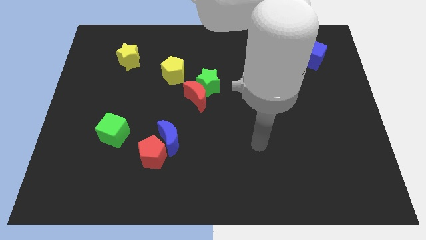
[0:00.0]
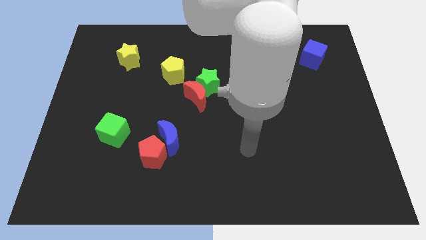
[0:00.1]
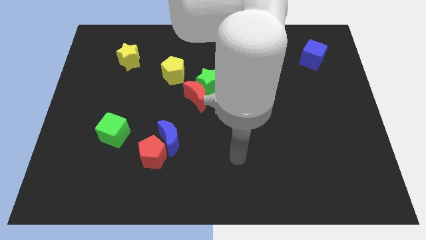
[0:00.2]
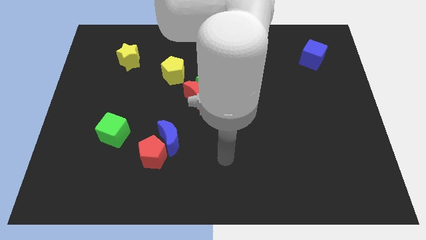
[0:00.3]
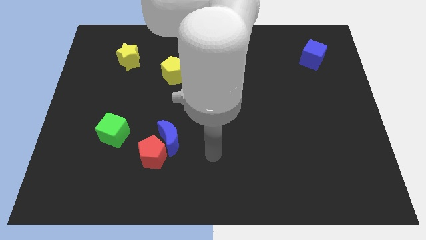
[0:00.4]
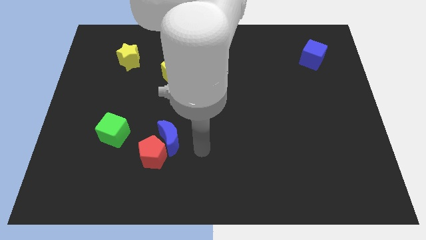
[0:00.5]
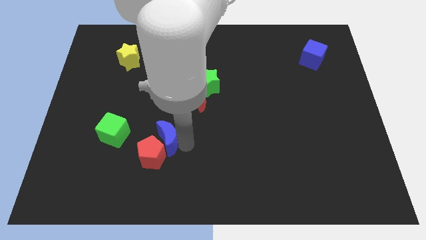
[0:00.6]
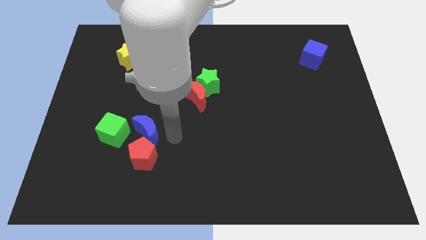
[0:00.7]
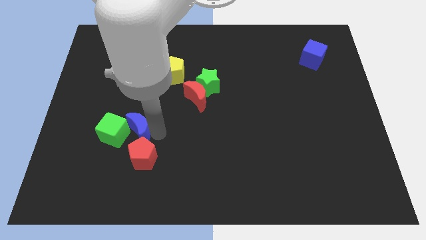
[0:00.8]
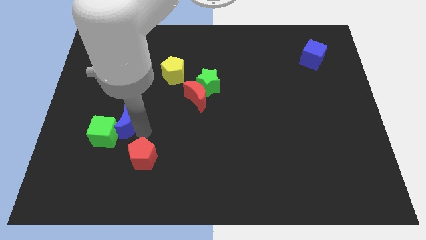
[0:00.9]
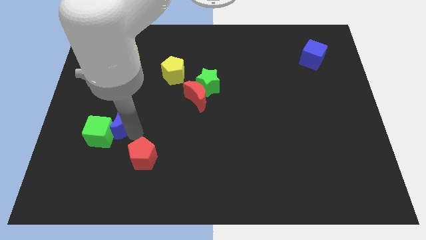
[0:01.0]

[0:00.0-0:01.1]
pull the red pentagon apart from the blue moon

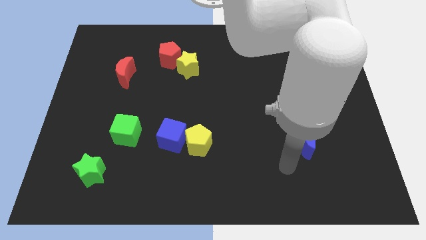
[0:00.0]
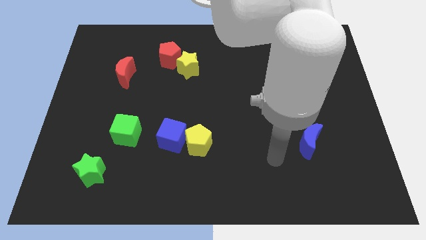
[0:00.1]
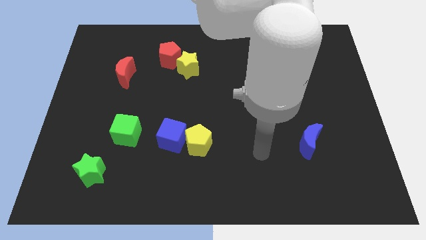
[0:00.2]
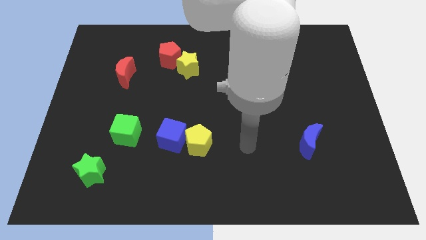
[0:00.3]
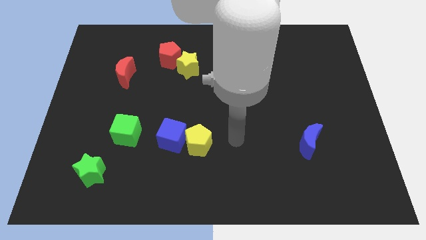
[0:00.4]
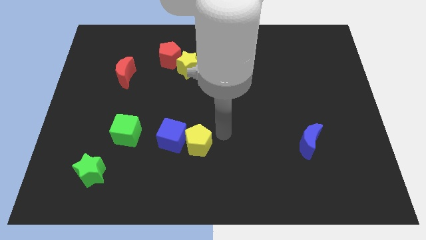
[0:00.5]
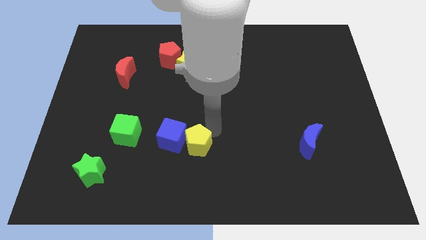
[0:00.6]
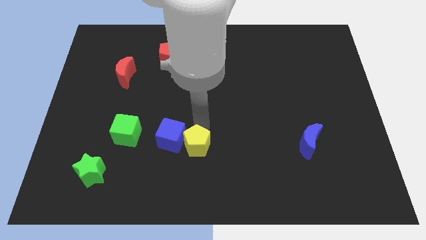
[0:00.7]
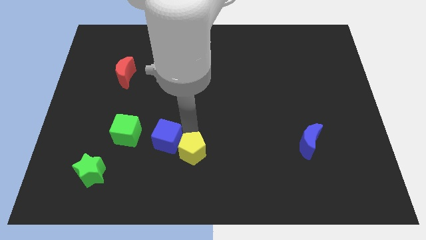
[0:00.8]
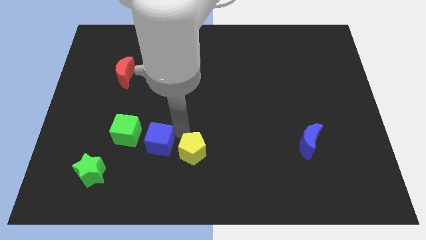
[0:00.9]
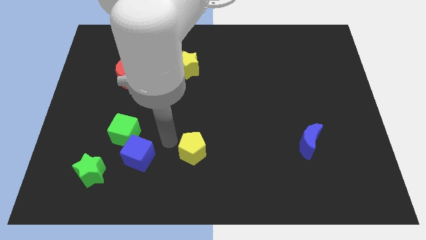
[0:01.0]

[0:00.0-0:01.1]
pull the yellow pentagon apart from the blue cube

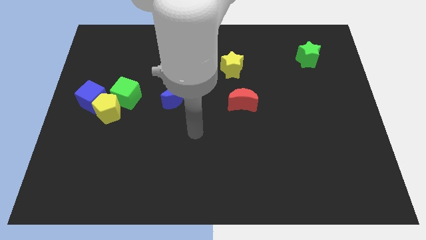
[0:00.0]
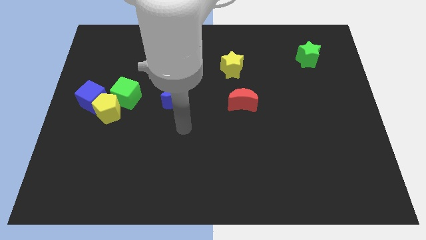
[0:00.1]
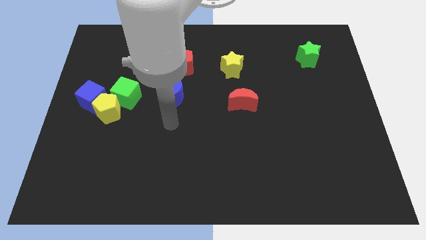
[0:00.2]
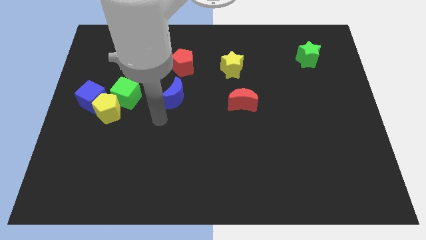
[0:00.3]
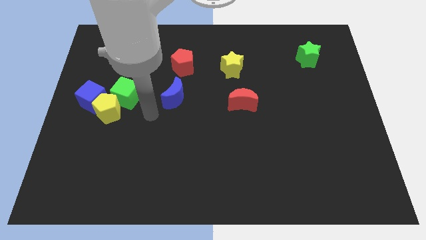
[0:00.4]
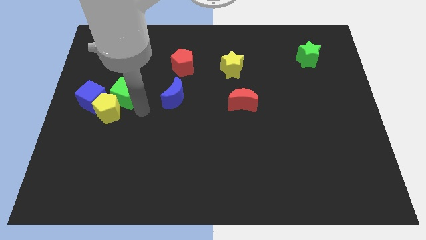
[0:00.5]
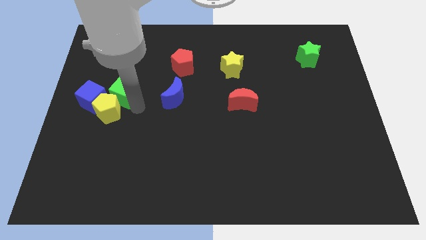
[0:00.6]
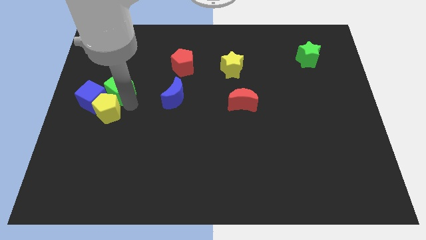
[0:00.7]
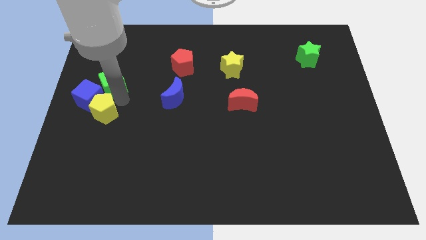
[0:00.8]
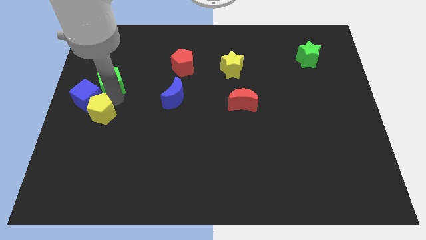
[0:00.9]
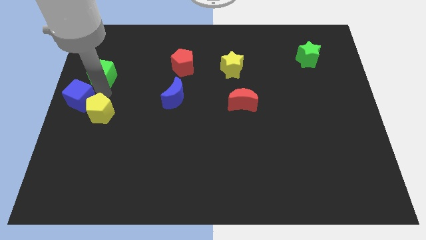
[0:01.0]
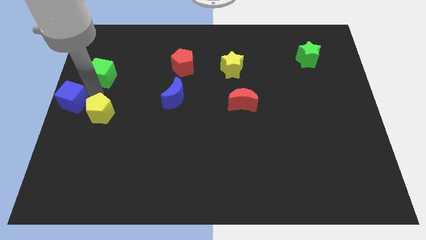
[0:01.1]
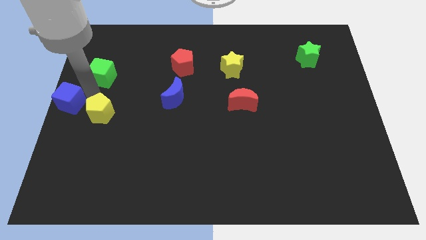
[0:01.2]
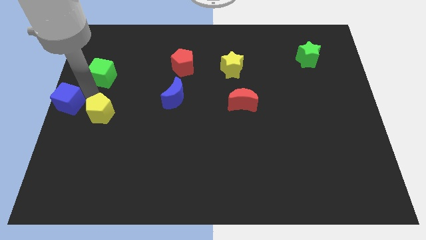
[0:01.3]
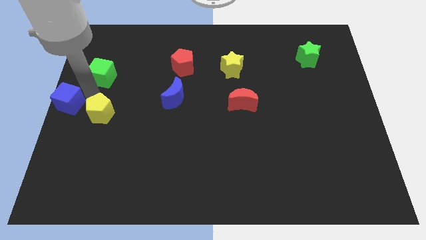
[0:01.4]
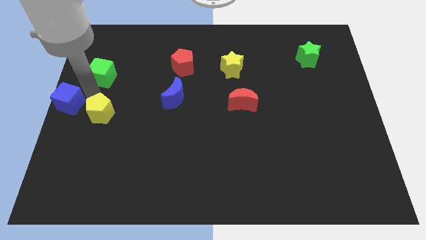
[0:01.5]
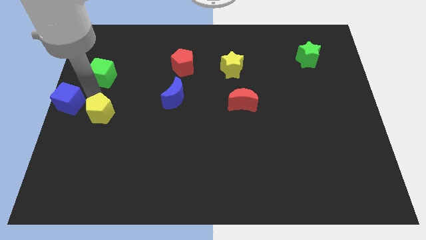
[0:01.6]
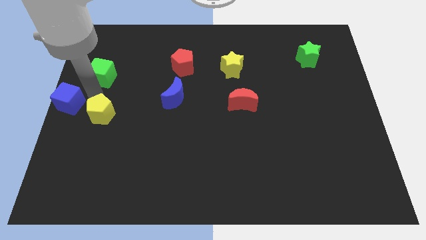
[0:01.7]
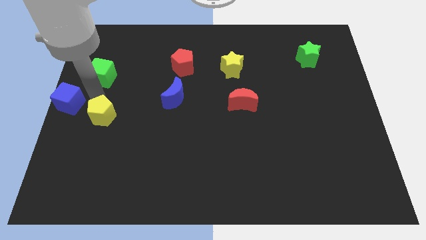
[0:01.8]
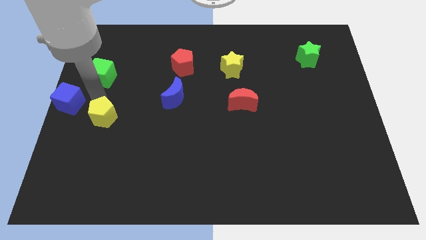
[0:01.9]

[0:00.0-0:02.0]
move the yellow pentagon away from the blue cube and green cube

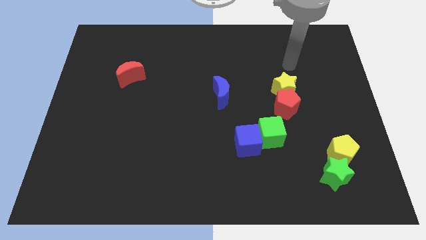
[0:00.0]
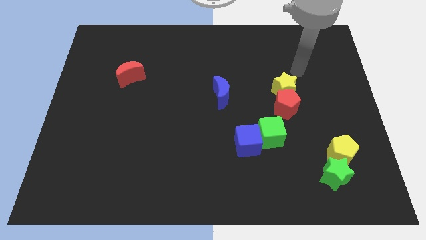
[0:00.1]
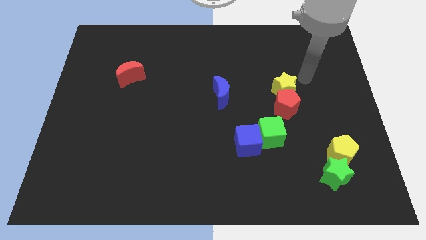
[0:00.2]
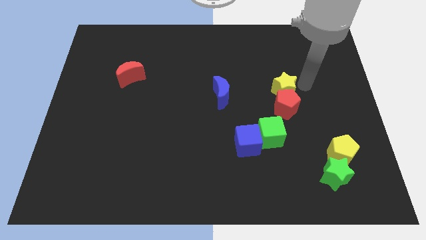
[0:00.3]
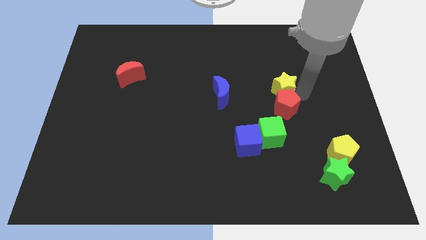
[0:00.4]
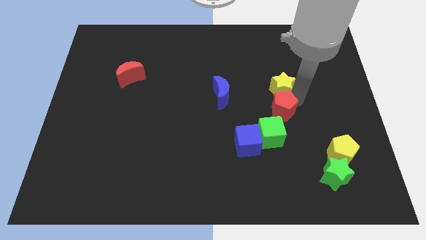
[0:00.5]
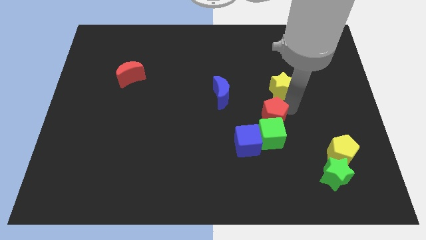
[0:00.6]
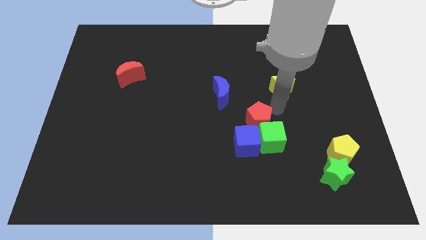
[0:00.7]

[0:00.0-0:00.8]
pull the yellow star apart from the red pentagon

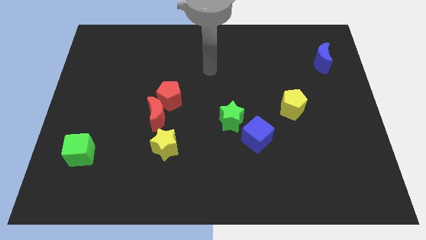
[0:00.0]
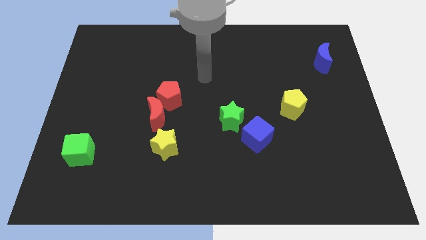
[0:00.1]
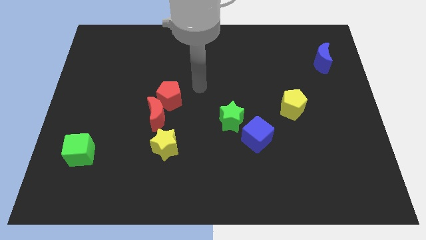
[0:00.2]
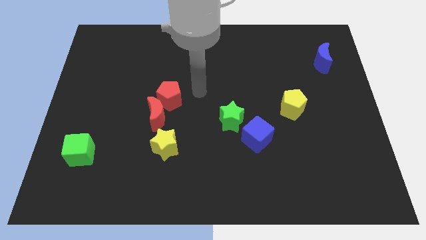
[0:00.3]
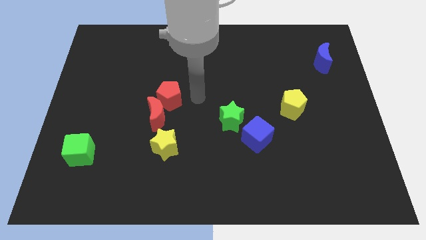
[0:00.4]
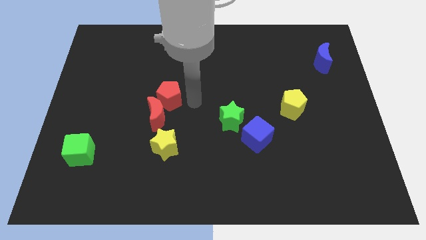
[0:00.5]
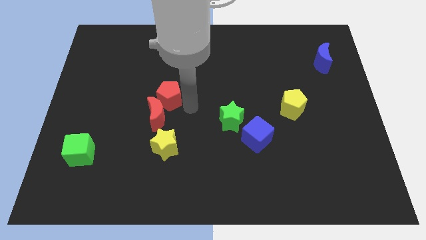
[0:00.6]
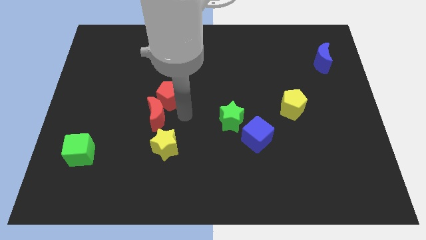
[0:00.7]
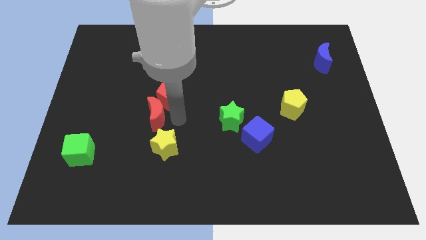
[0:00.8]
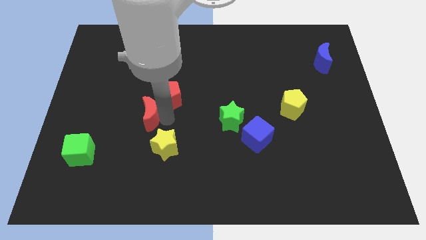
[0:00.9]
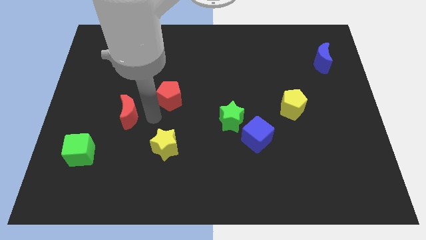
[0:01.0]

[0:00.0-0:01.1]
separate the red pentagon from the red moon

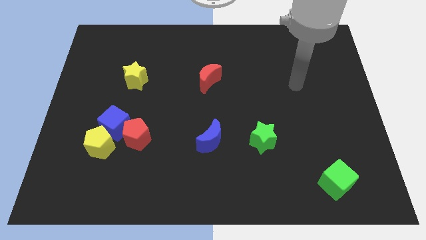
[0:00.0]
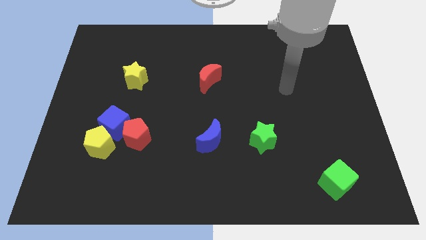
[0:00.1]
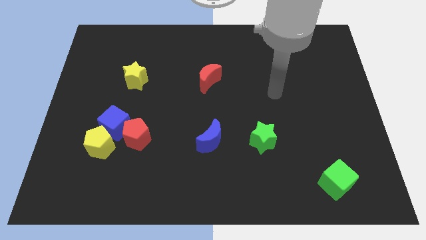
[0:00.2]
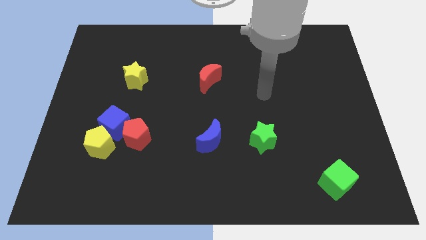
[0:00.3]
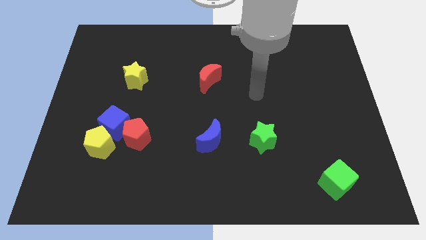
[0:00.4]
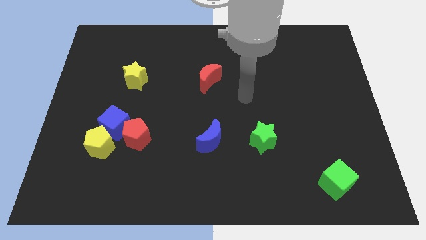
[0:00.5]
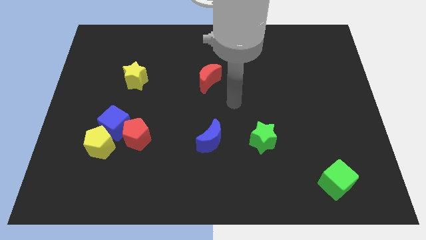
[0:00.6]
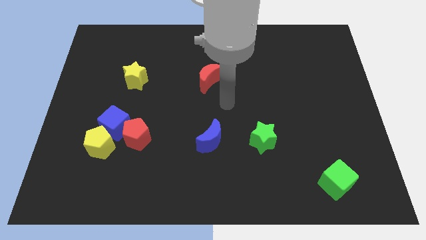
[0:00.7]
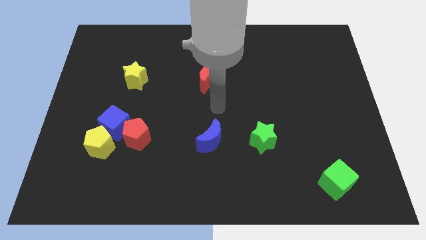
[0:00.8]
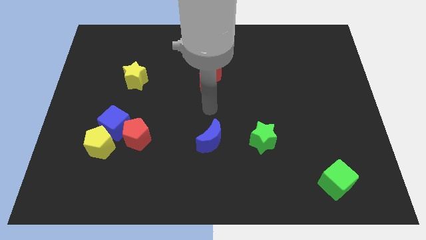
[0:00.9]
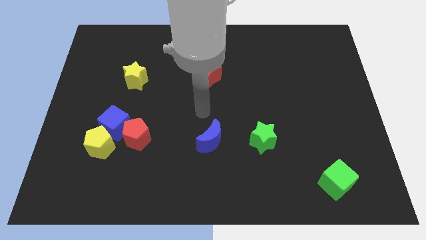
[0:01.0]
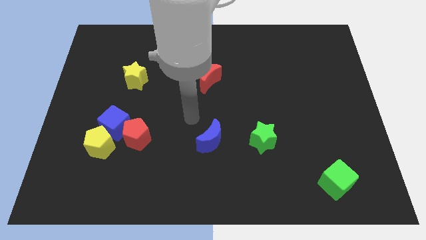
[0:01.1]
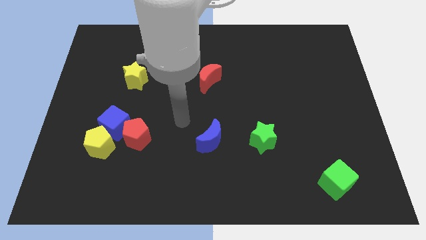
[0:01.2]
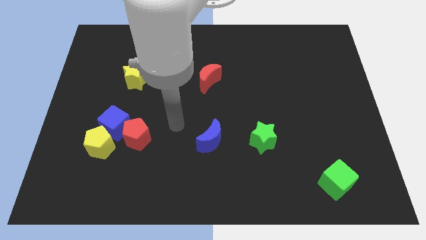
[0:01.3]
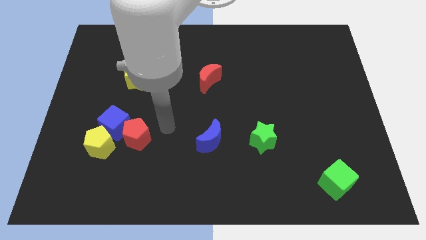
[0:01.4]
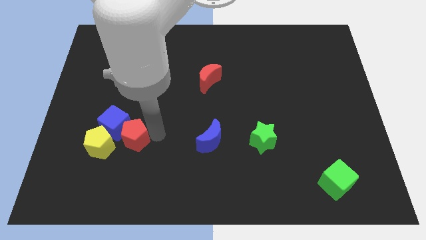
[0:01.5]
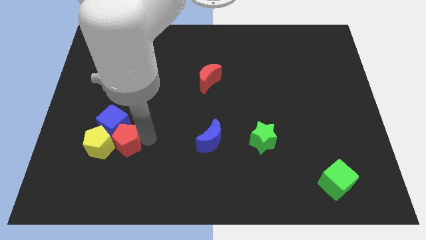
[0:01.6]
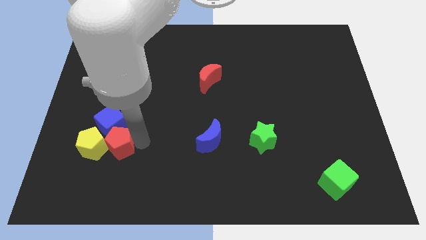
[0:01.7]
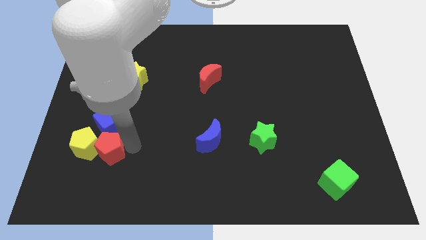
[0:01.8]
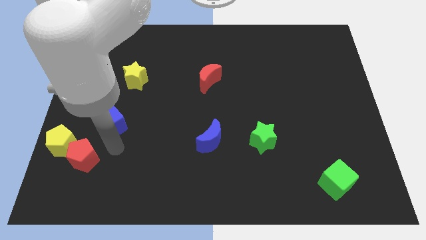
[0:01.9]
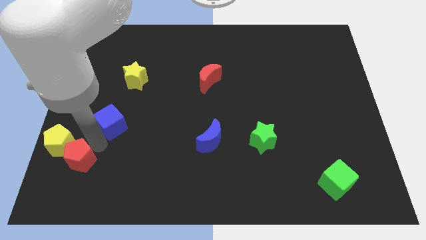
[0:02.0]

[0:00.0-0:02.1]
pull the blue cube apart from the yellow pentagon and red pentagon

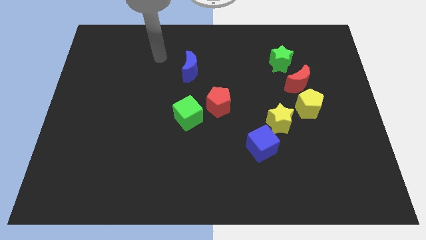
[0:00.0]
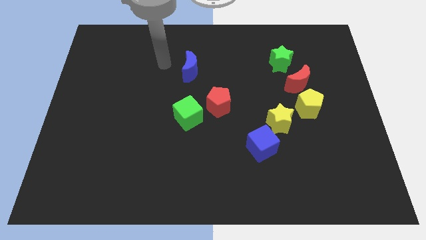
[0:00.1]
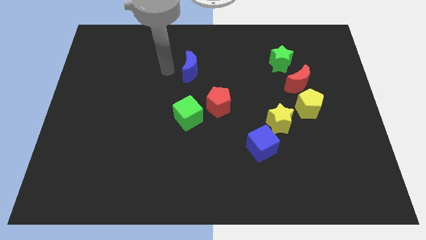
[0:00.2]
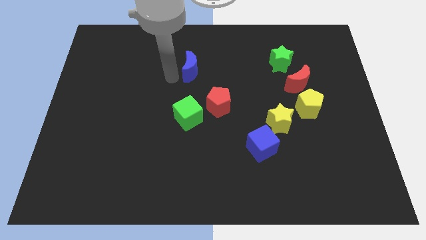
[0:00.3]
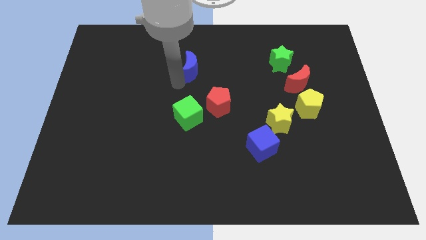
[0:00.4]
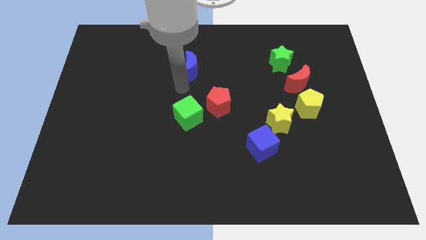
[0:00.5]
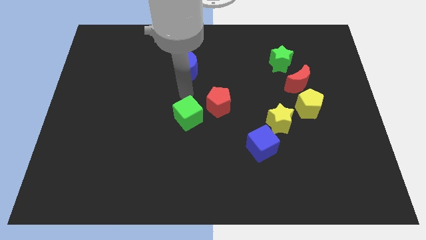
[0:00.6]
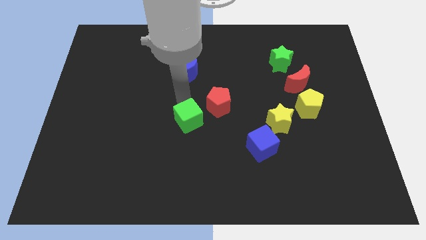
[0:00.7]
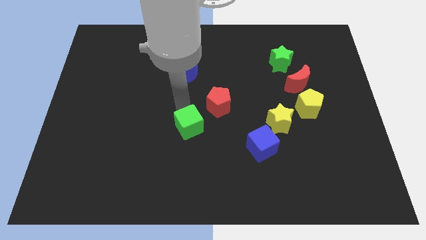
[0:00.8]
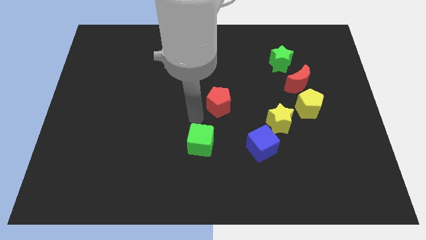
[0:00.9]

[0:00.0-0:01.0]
move the red pentagon away from the green cube

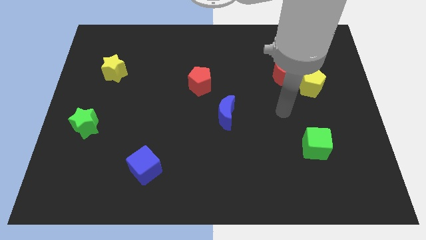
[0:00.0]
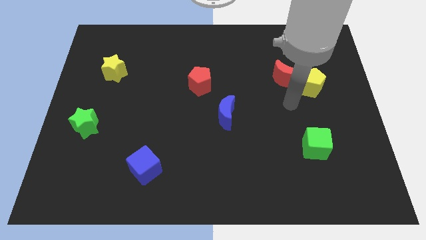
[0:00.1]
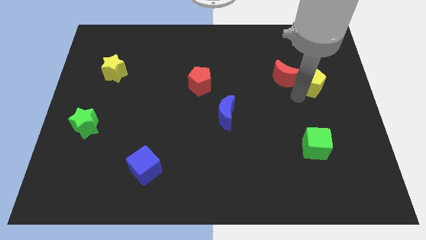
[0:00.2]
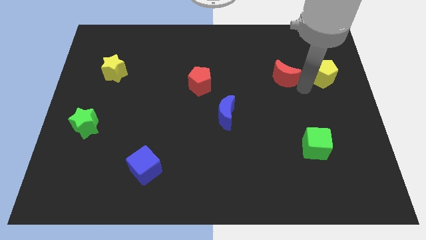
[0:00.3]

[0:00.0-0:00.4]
move the red moon away from the yellow pentagon
